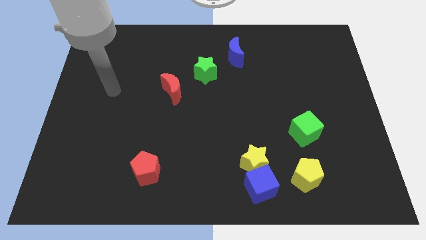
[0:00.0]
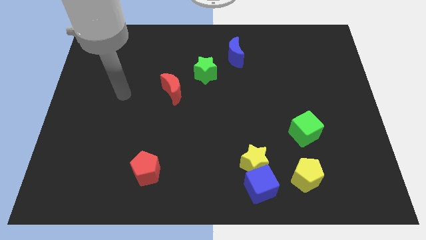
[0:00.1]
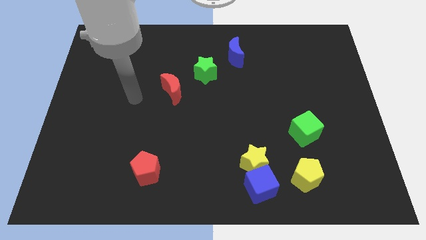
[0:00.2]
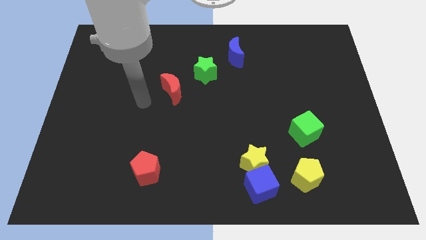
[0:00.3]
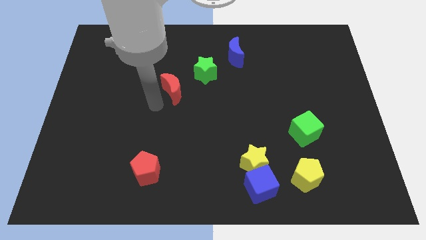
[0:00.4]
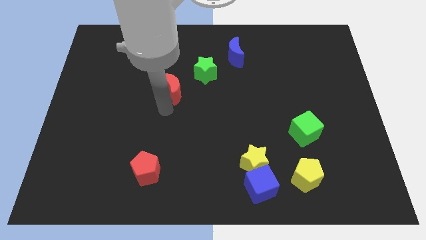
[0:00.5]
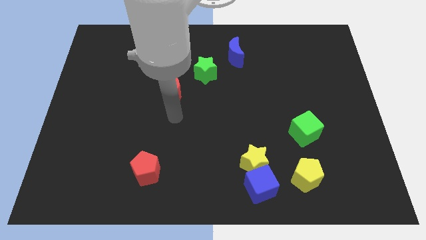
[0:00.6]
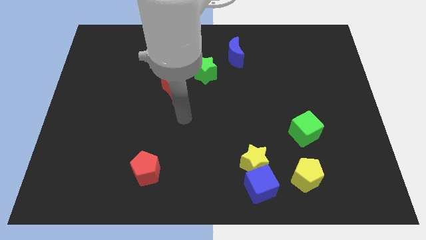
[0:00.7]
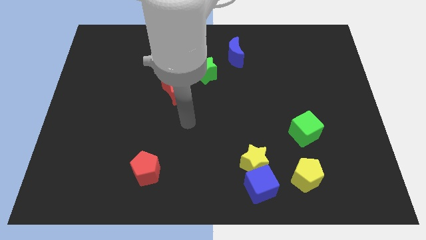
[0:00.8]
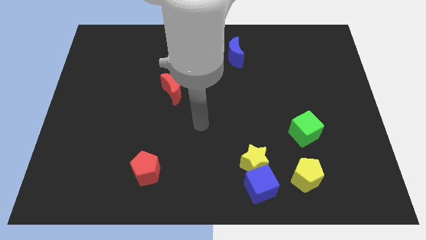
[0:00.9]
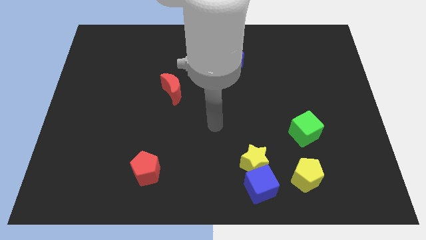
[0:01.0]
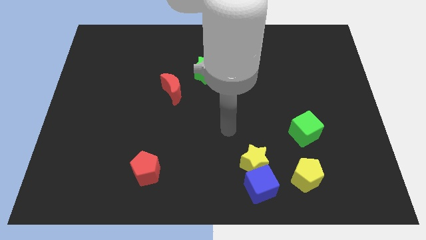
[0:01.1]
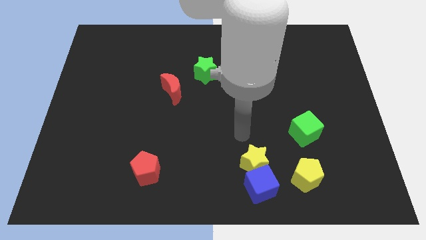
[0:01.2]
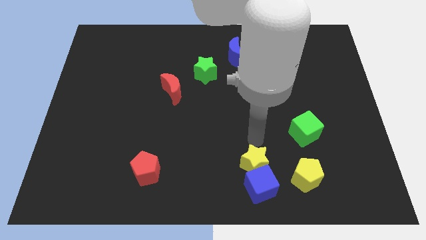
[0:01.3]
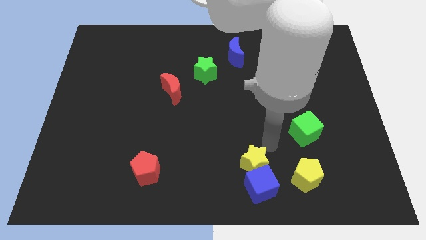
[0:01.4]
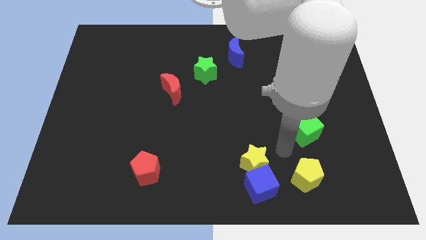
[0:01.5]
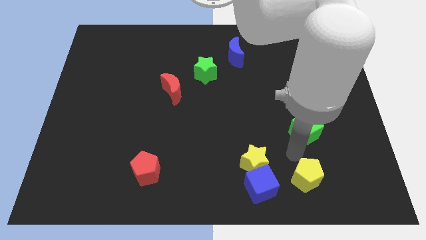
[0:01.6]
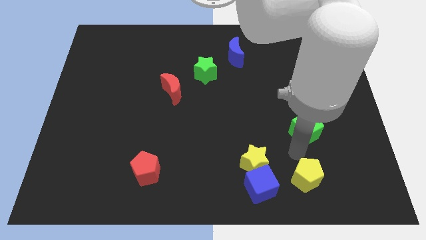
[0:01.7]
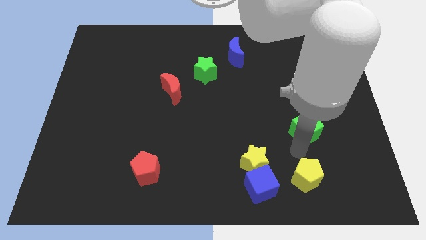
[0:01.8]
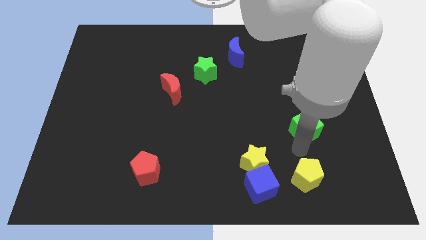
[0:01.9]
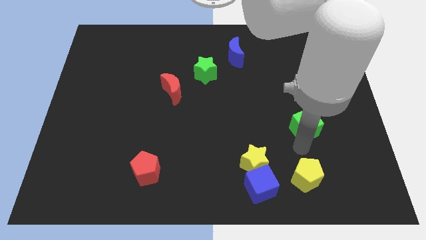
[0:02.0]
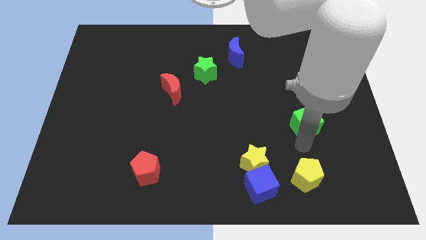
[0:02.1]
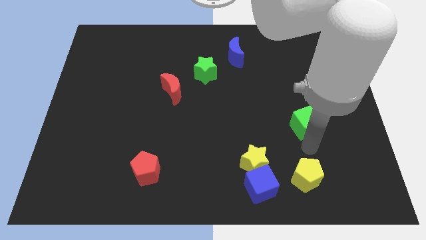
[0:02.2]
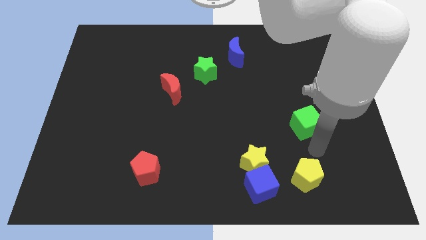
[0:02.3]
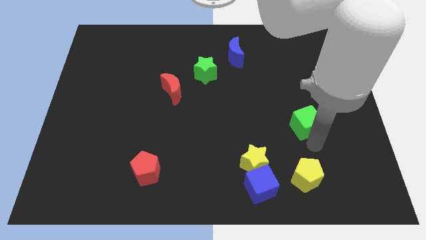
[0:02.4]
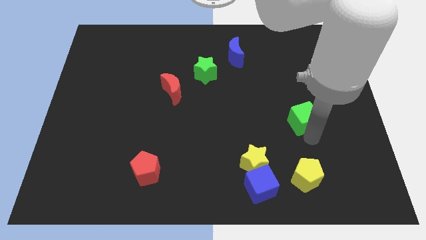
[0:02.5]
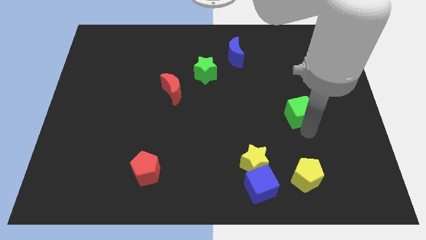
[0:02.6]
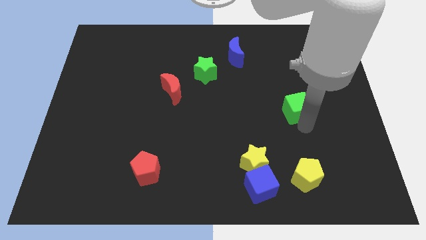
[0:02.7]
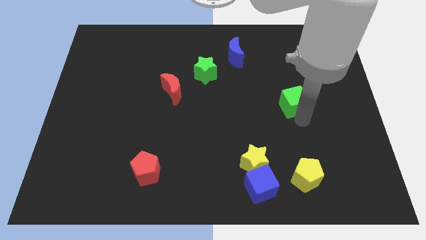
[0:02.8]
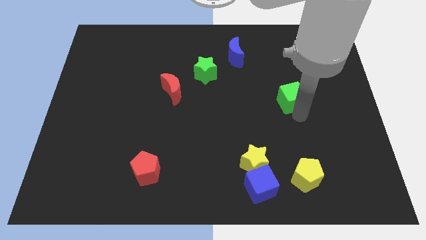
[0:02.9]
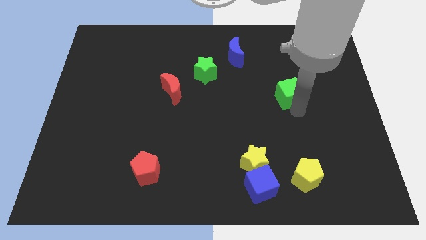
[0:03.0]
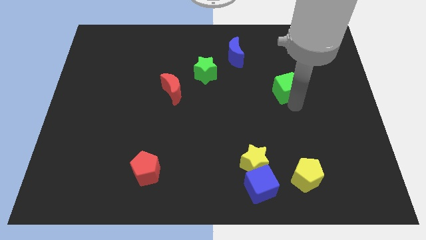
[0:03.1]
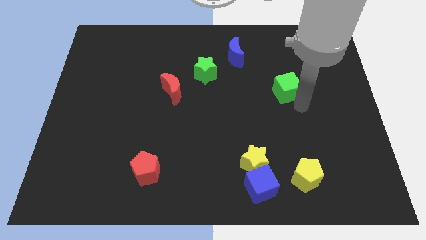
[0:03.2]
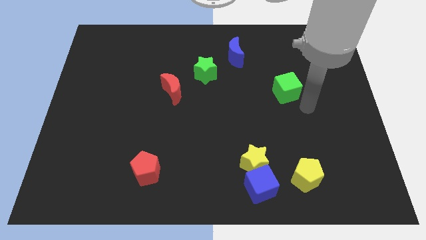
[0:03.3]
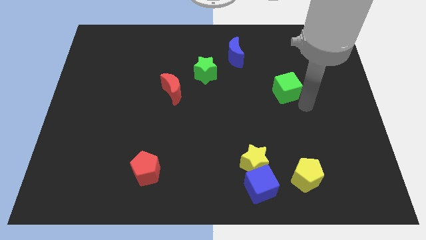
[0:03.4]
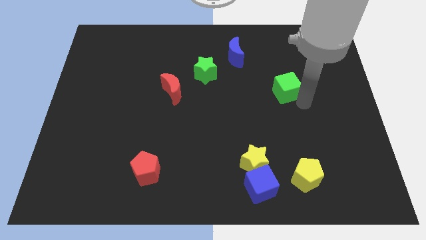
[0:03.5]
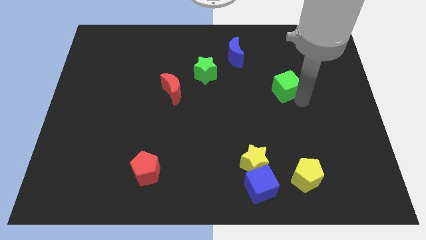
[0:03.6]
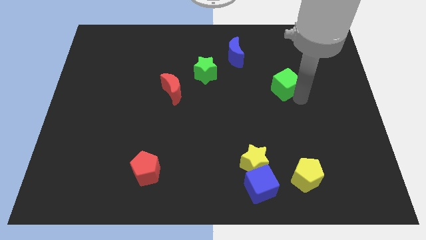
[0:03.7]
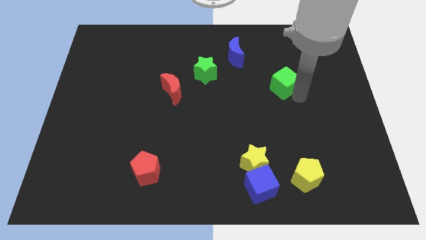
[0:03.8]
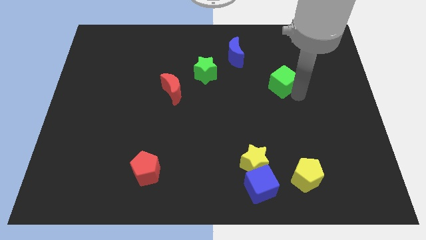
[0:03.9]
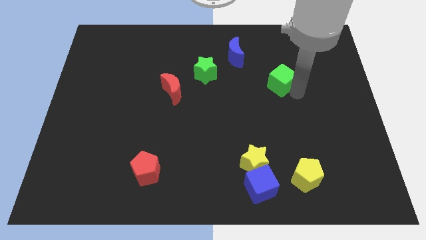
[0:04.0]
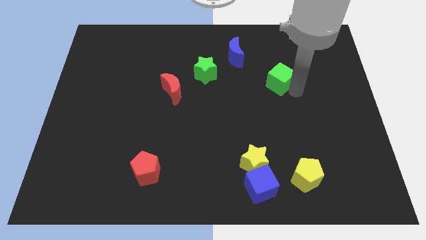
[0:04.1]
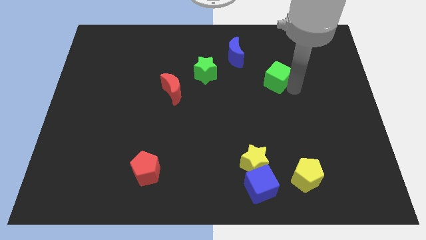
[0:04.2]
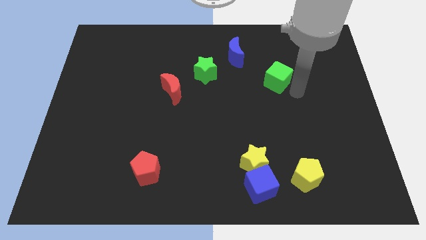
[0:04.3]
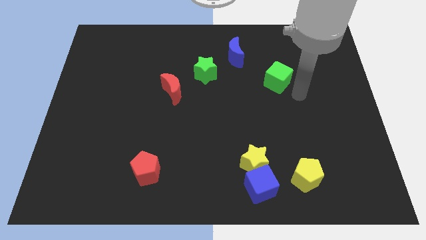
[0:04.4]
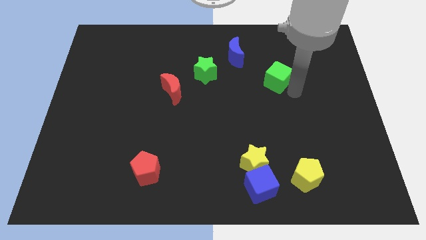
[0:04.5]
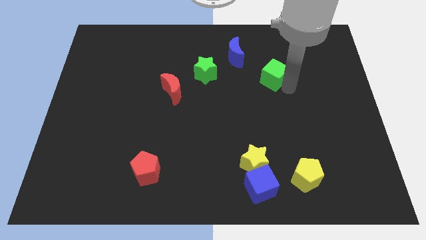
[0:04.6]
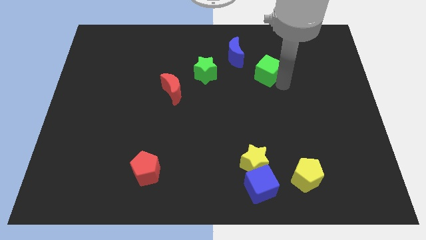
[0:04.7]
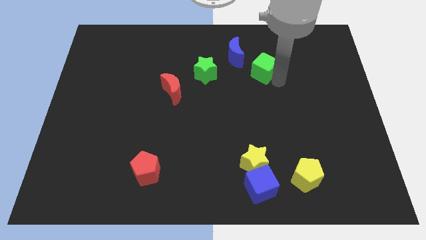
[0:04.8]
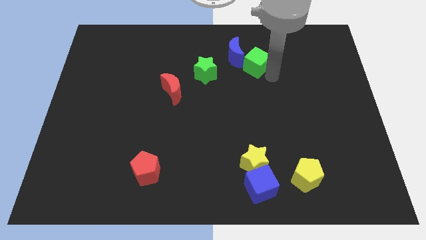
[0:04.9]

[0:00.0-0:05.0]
slide the green cube close to the blue moon

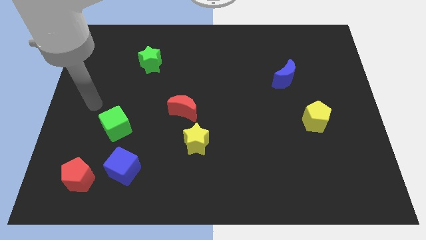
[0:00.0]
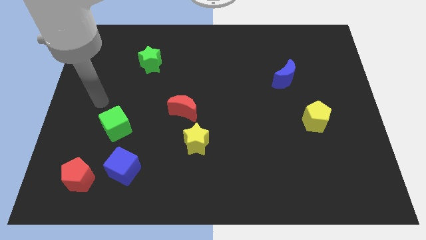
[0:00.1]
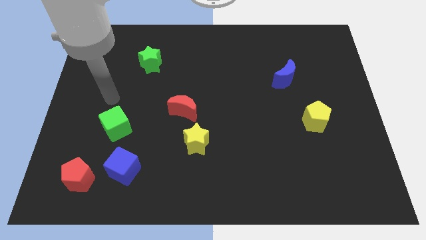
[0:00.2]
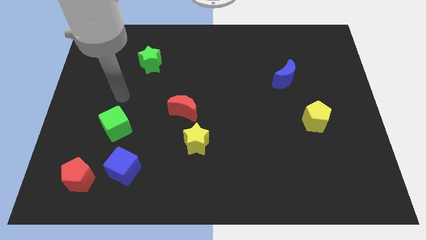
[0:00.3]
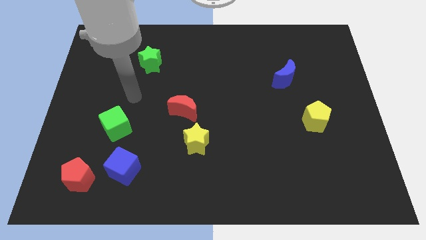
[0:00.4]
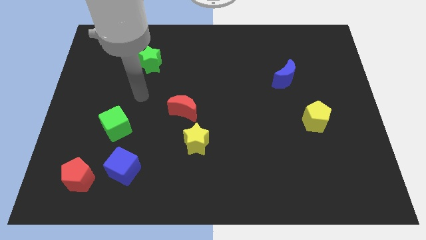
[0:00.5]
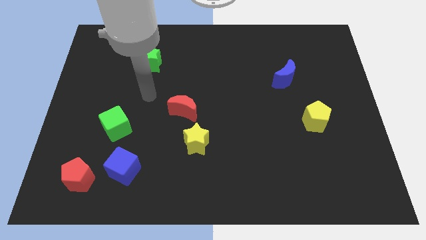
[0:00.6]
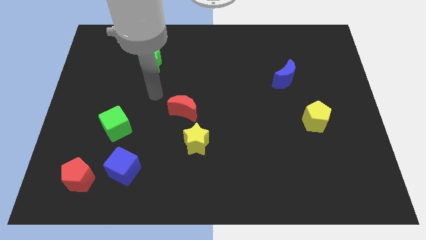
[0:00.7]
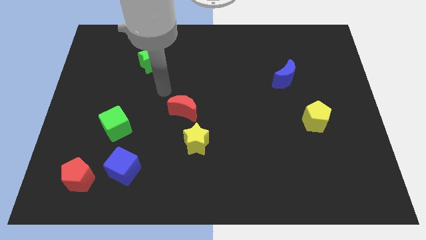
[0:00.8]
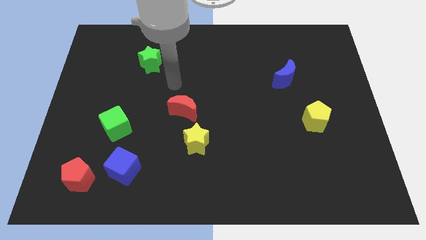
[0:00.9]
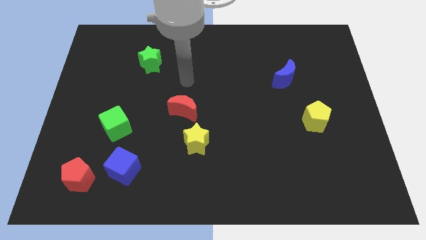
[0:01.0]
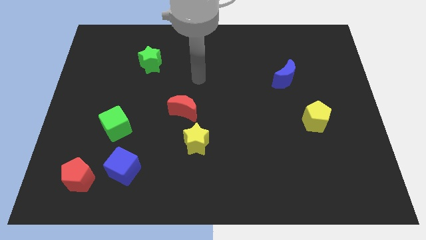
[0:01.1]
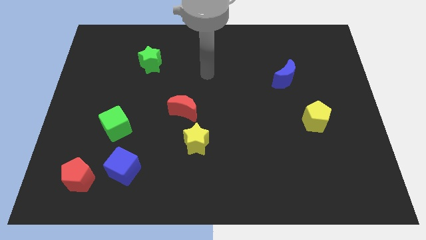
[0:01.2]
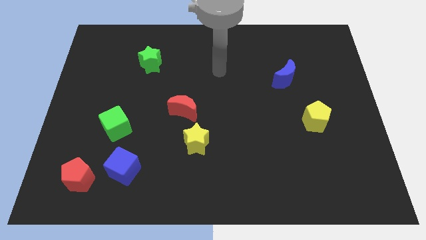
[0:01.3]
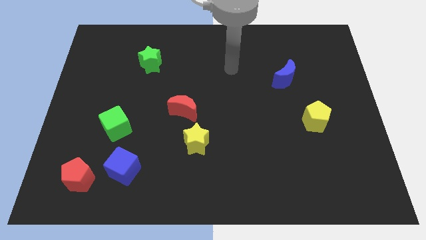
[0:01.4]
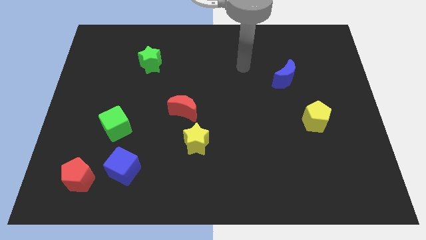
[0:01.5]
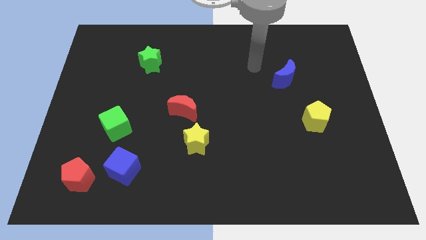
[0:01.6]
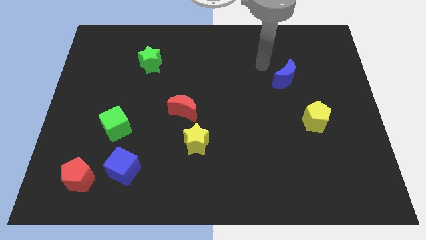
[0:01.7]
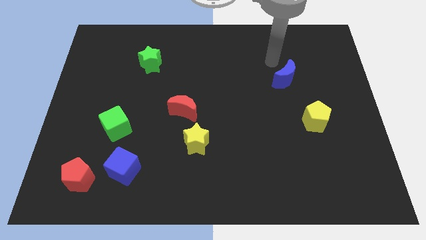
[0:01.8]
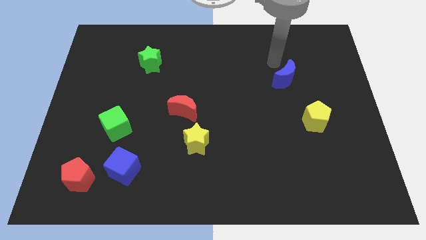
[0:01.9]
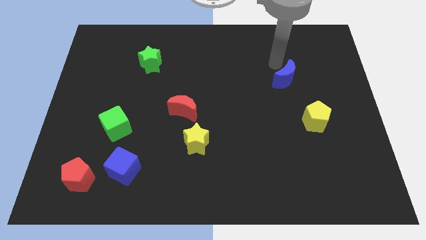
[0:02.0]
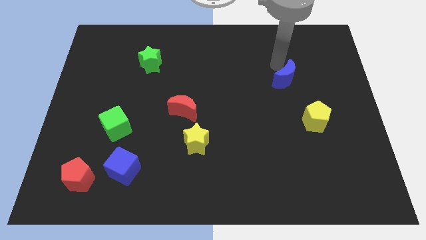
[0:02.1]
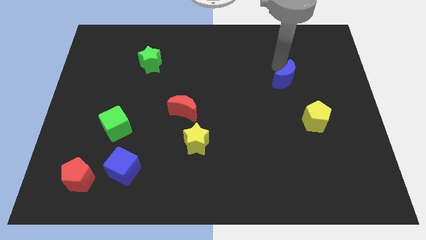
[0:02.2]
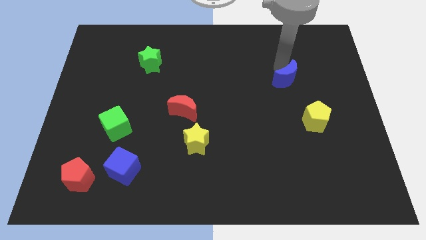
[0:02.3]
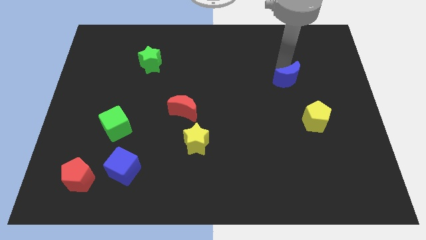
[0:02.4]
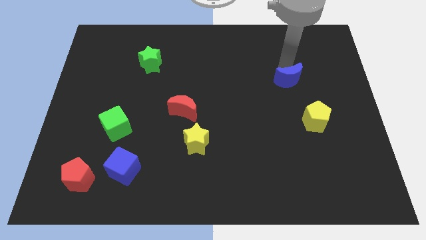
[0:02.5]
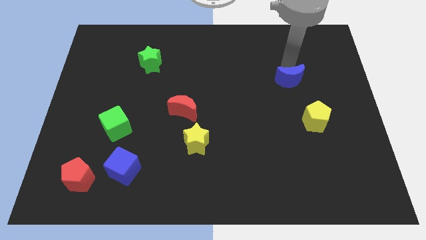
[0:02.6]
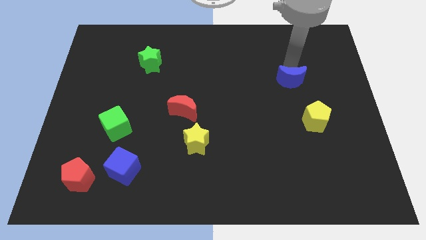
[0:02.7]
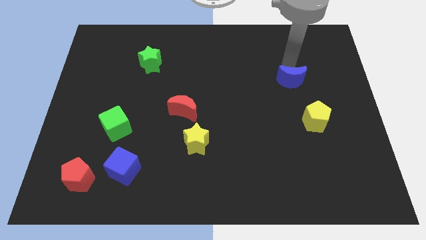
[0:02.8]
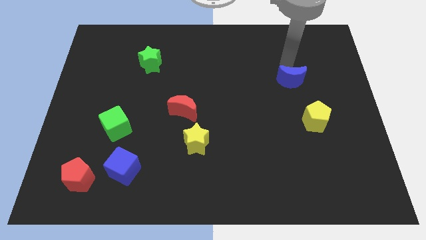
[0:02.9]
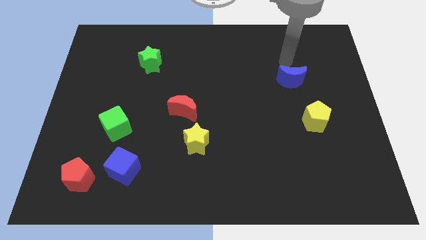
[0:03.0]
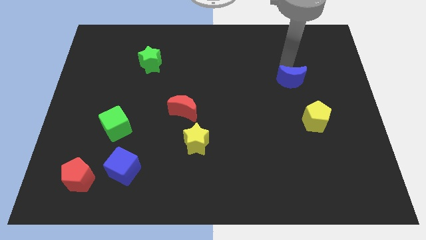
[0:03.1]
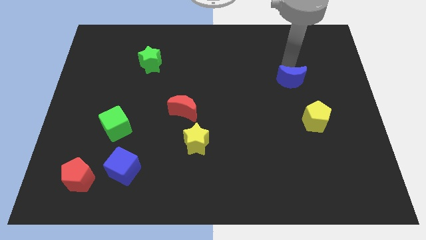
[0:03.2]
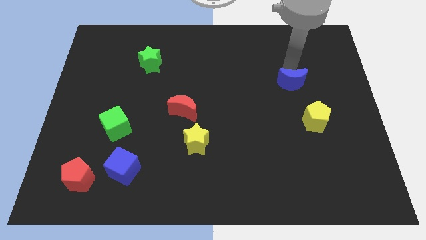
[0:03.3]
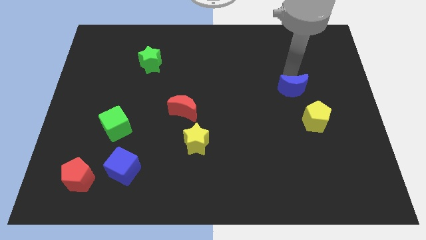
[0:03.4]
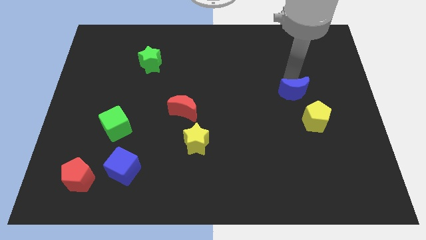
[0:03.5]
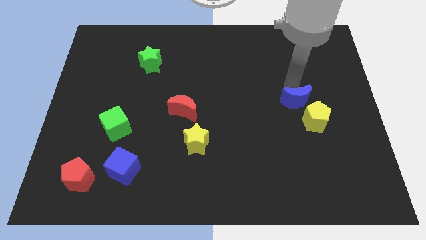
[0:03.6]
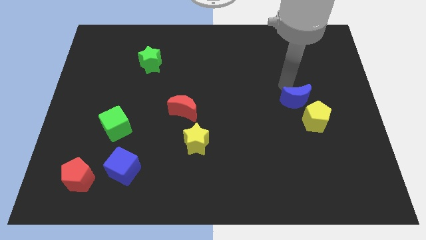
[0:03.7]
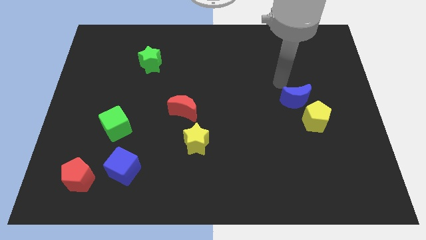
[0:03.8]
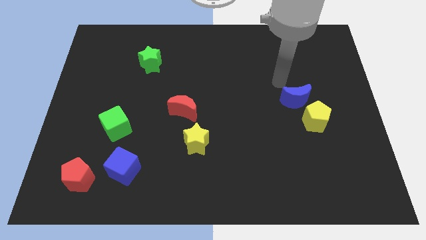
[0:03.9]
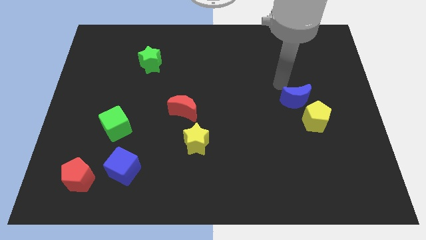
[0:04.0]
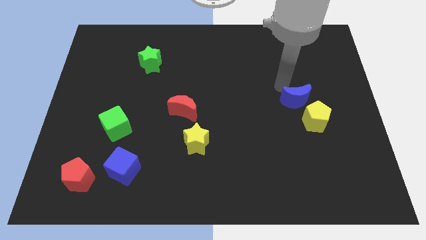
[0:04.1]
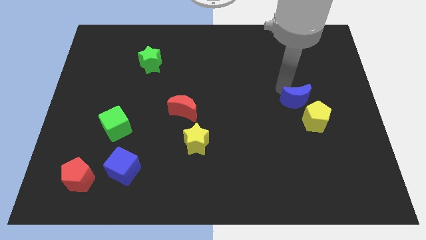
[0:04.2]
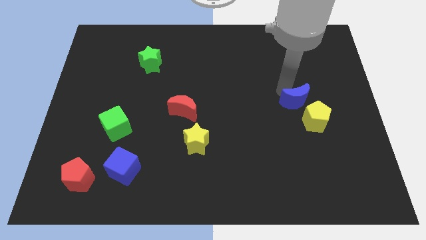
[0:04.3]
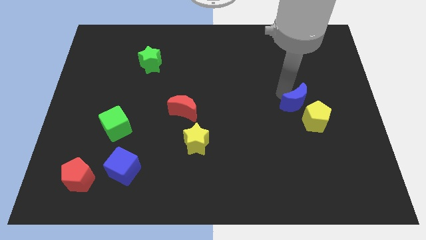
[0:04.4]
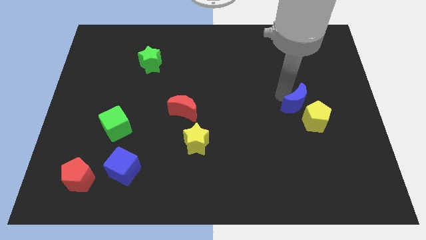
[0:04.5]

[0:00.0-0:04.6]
put the blue moon next to the yellow pentagon
